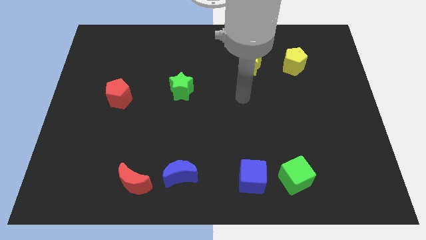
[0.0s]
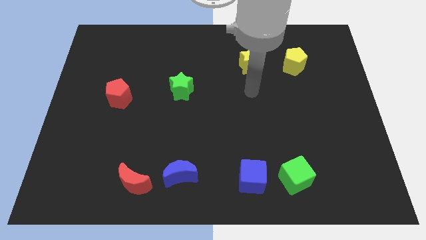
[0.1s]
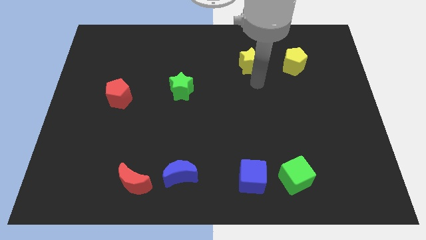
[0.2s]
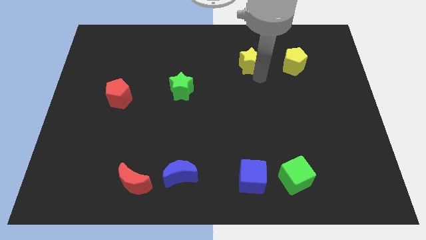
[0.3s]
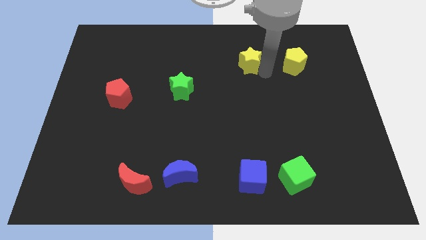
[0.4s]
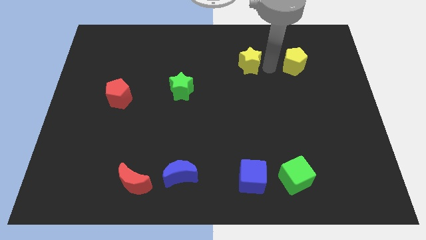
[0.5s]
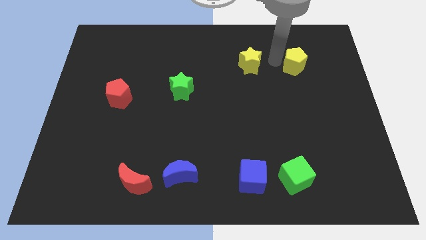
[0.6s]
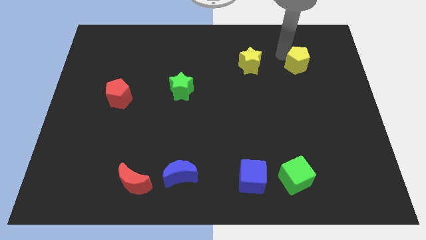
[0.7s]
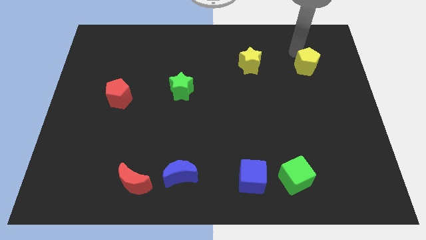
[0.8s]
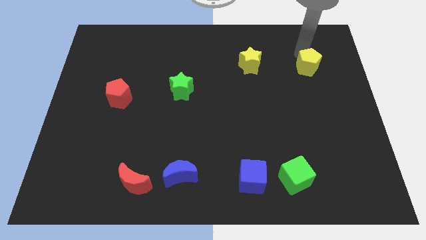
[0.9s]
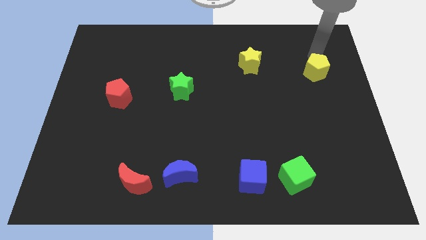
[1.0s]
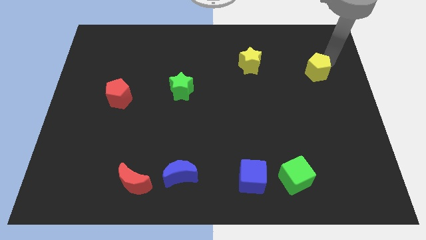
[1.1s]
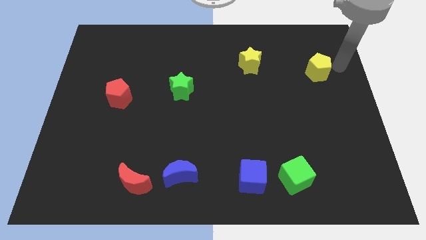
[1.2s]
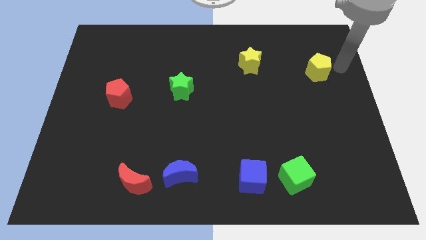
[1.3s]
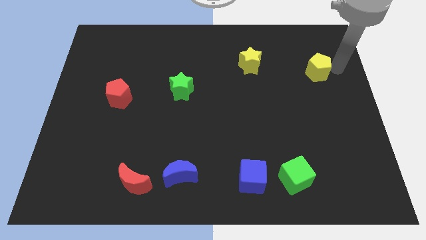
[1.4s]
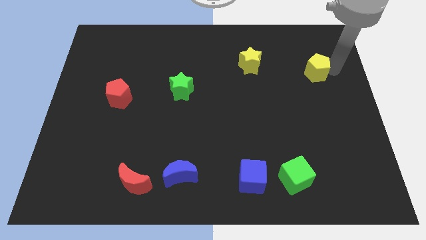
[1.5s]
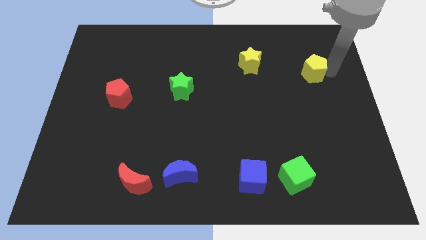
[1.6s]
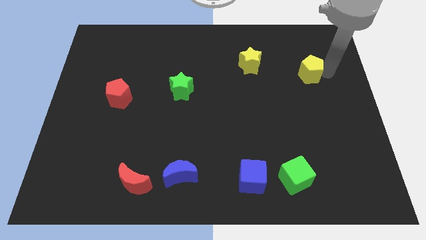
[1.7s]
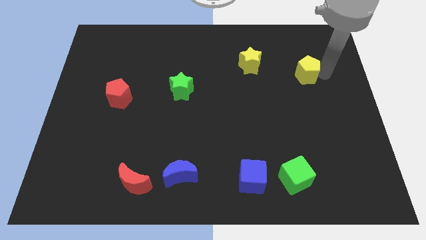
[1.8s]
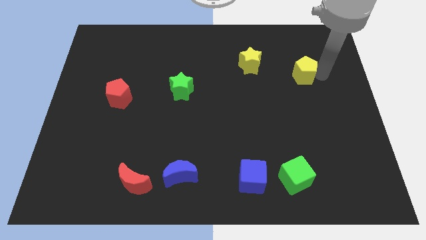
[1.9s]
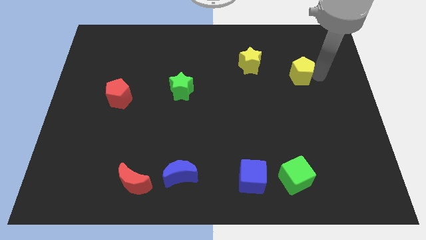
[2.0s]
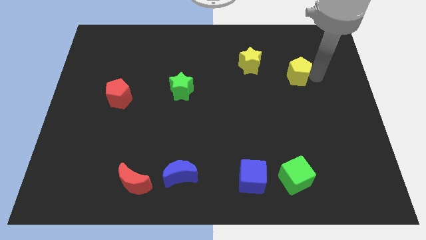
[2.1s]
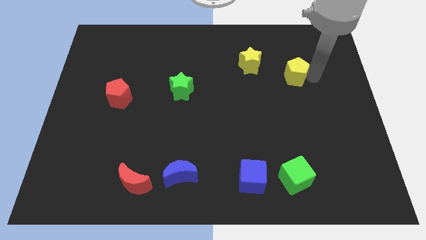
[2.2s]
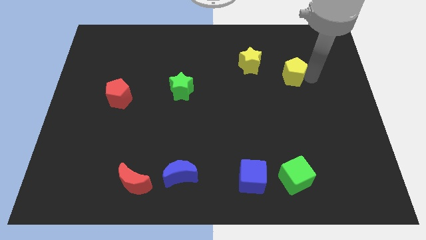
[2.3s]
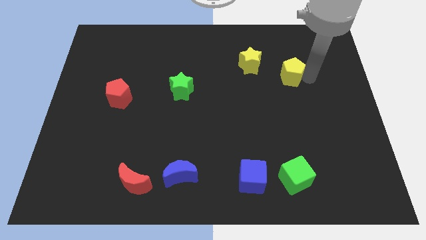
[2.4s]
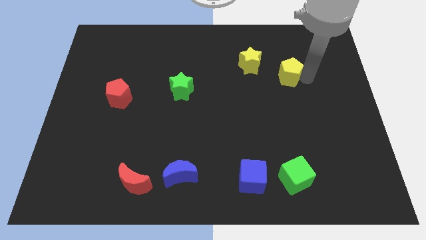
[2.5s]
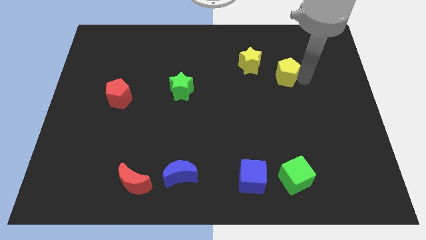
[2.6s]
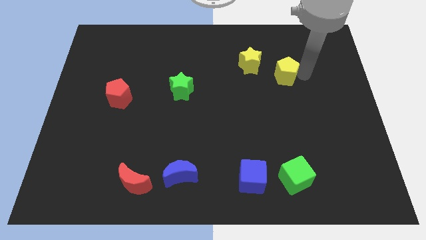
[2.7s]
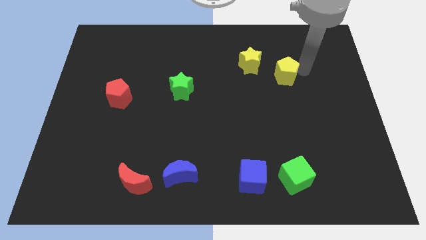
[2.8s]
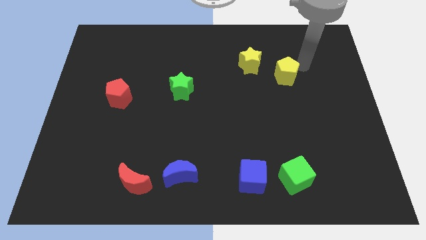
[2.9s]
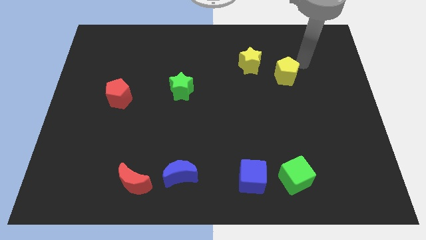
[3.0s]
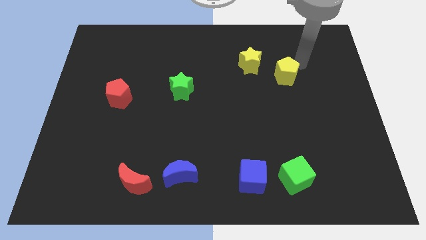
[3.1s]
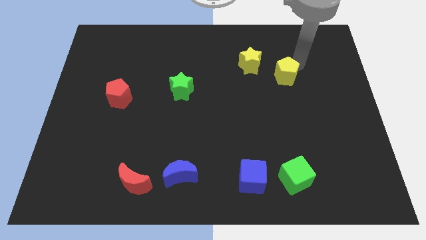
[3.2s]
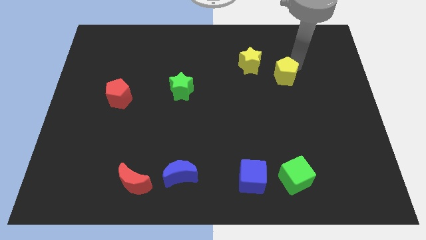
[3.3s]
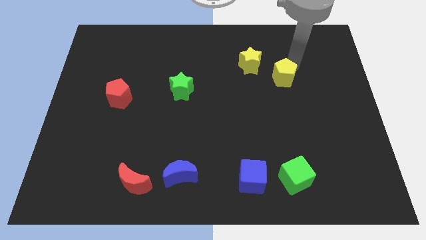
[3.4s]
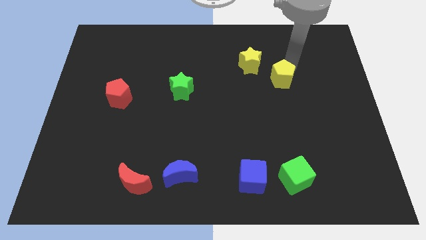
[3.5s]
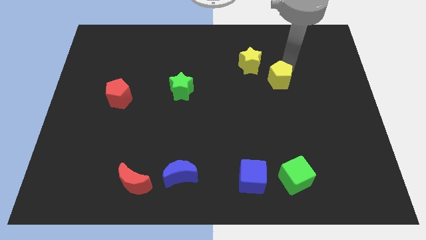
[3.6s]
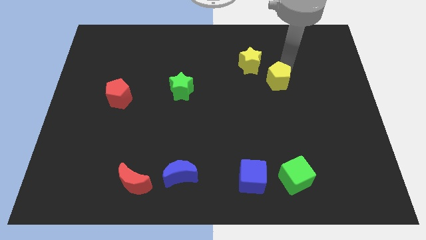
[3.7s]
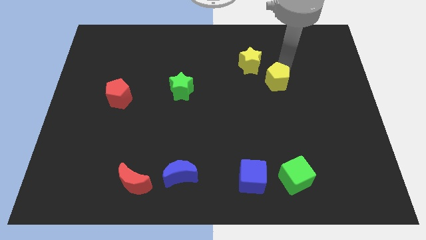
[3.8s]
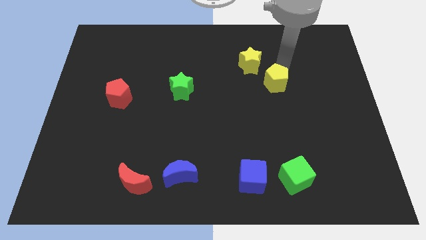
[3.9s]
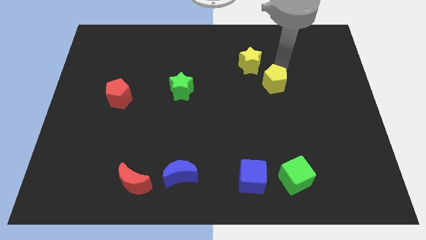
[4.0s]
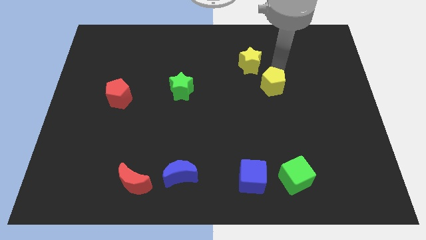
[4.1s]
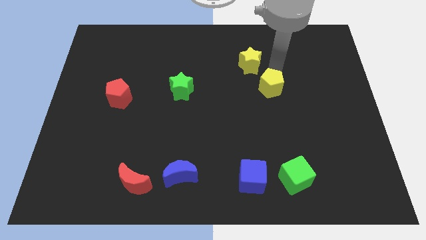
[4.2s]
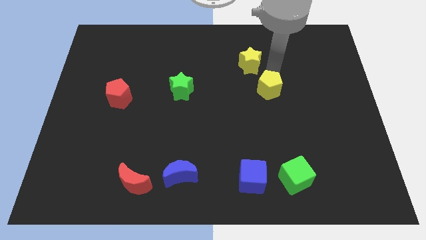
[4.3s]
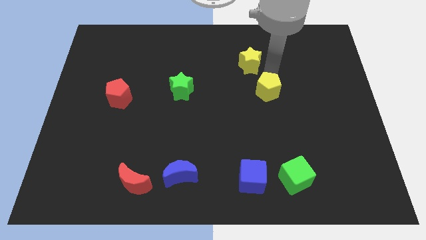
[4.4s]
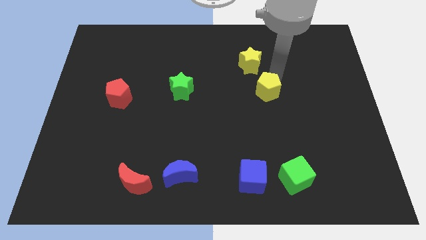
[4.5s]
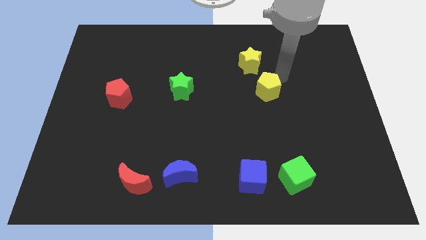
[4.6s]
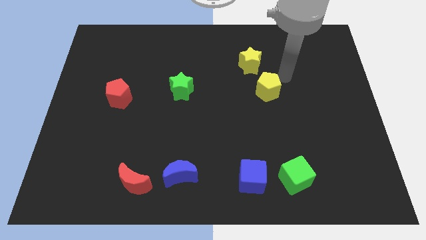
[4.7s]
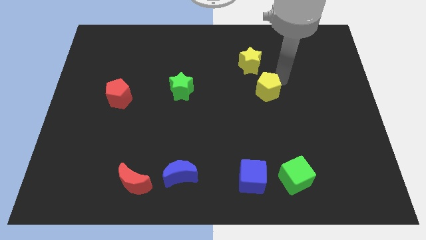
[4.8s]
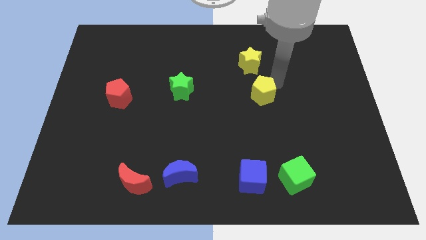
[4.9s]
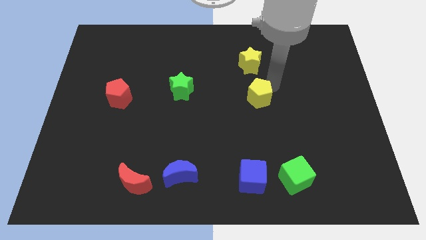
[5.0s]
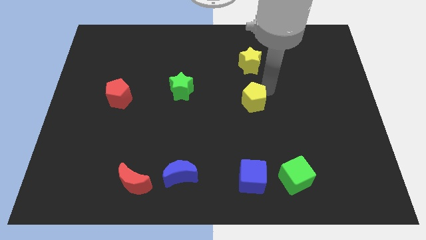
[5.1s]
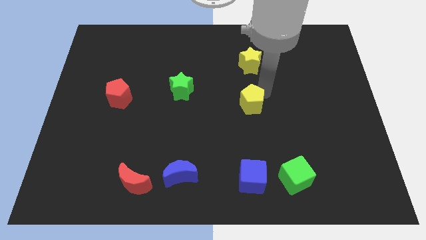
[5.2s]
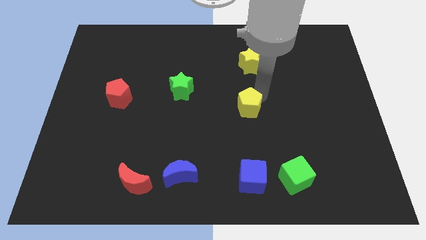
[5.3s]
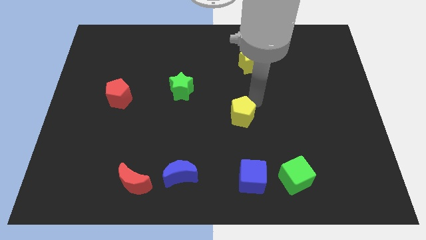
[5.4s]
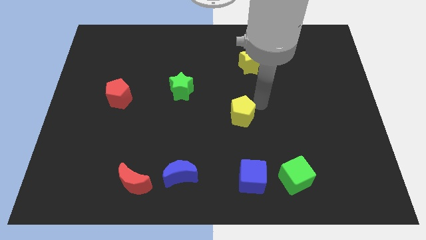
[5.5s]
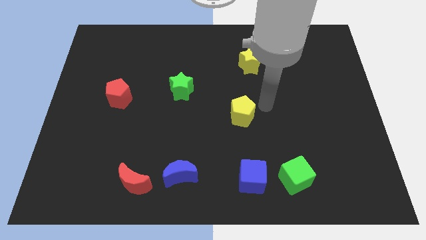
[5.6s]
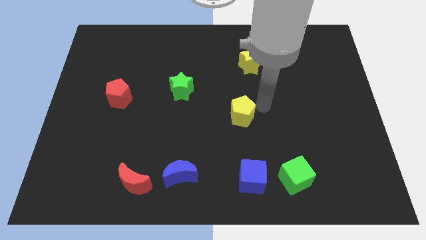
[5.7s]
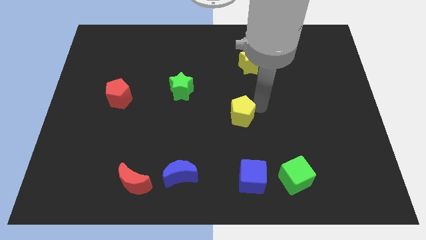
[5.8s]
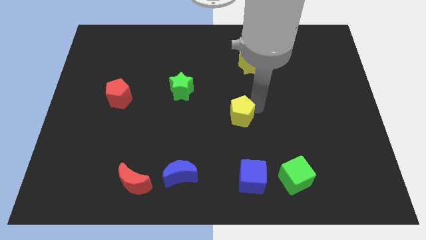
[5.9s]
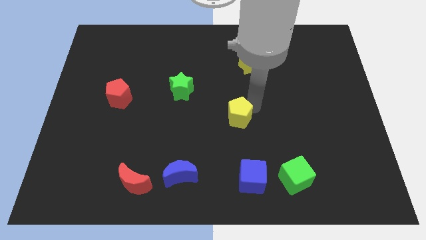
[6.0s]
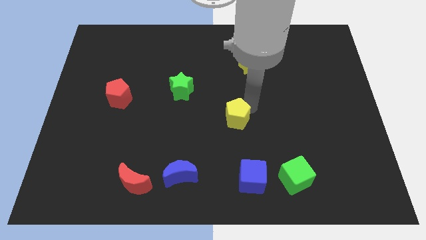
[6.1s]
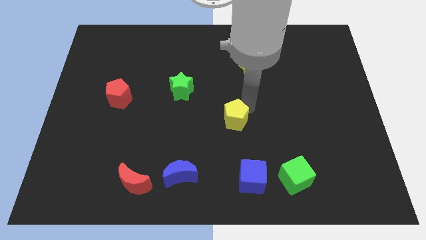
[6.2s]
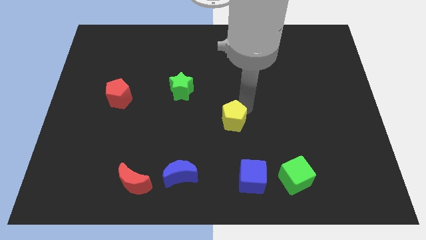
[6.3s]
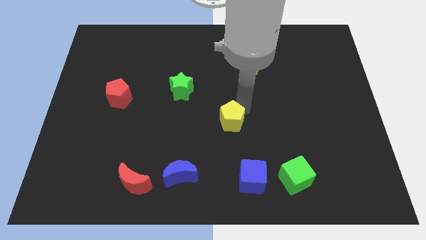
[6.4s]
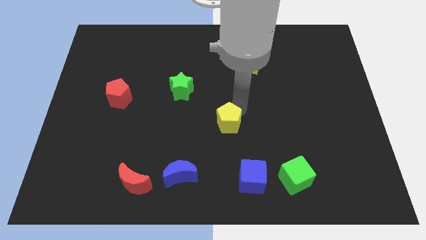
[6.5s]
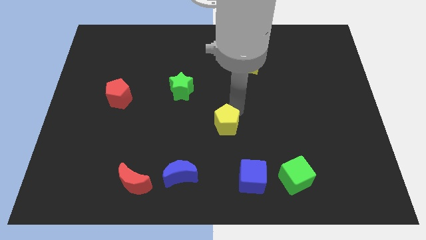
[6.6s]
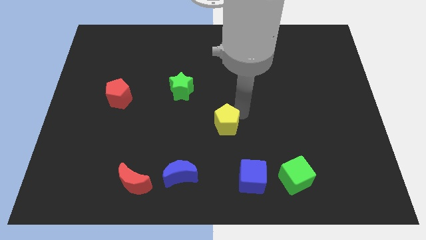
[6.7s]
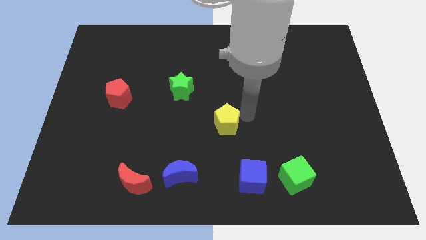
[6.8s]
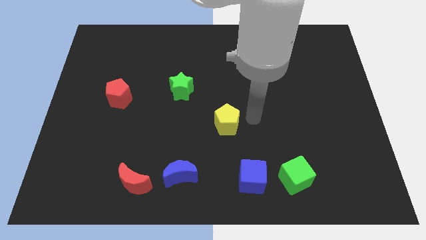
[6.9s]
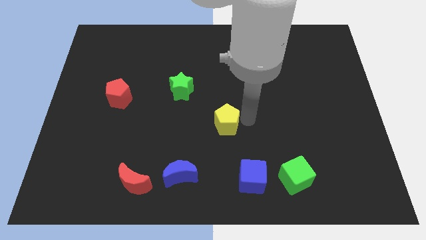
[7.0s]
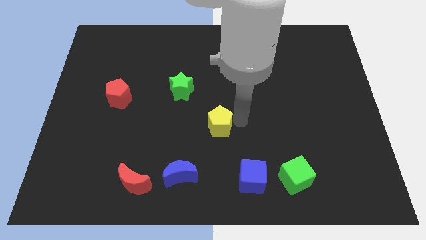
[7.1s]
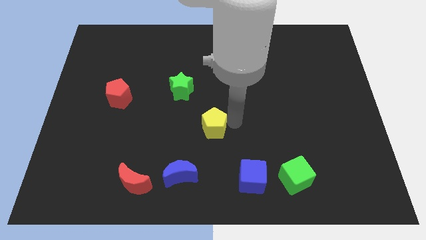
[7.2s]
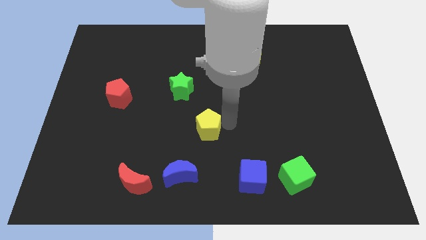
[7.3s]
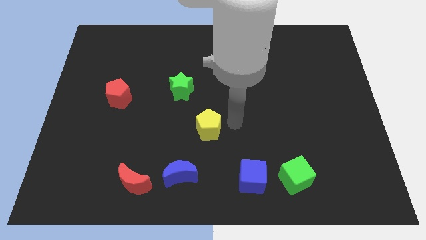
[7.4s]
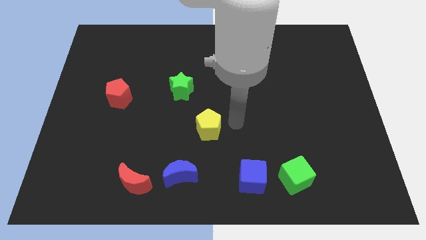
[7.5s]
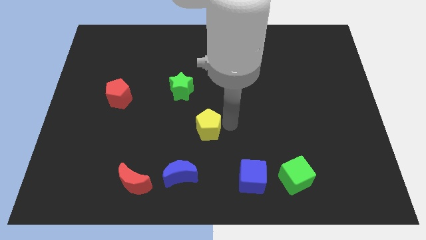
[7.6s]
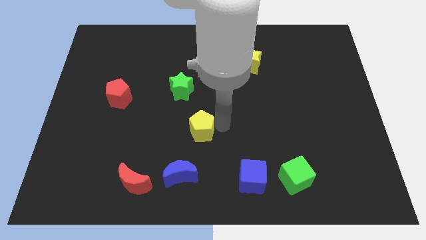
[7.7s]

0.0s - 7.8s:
put the yellow pentagon above the blue moon
